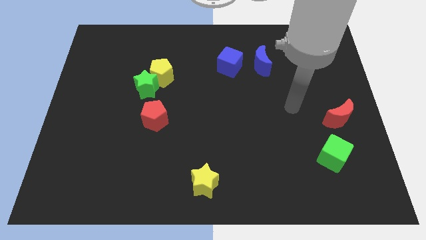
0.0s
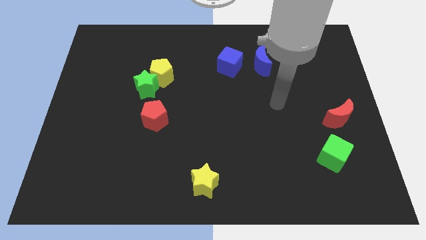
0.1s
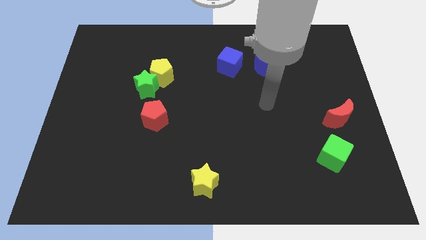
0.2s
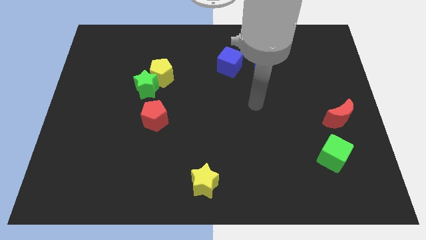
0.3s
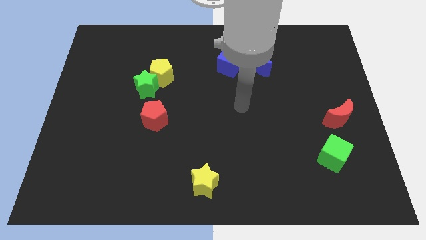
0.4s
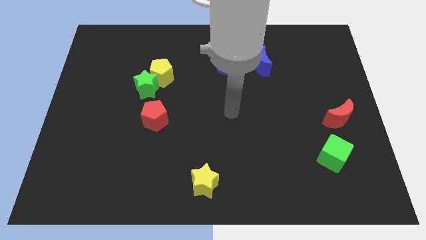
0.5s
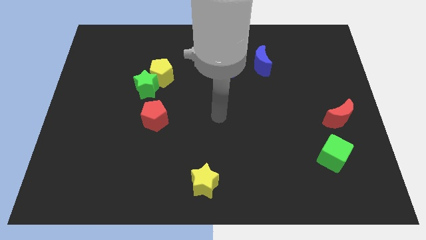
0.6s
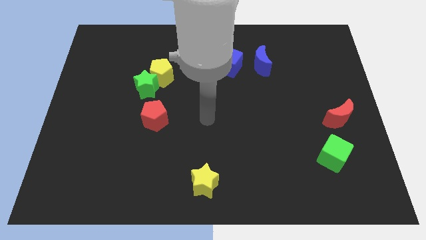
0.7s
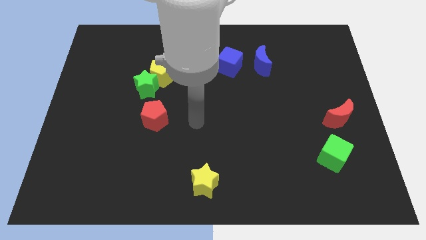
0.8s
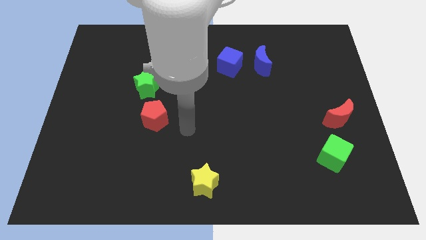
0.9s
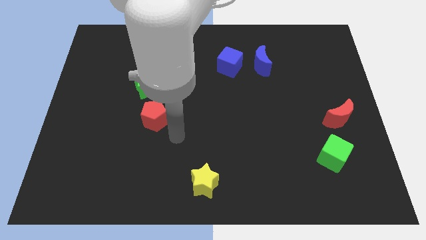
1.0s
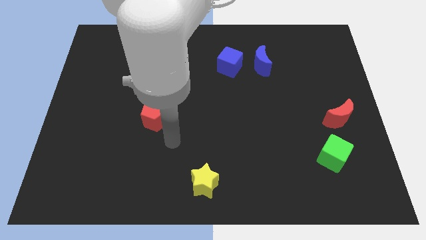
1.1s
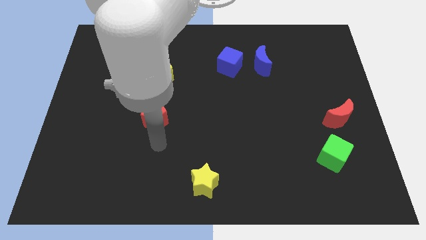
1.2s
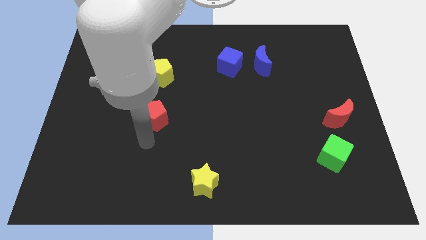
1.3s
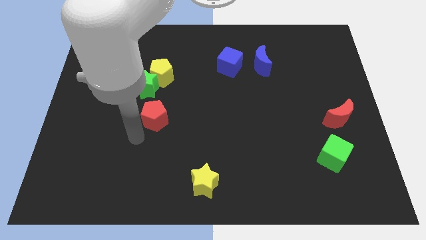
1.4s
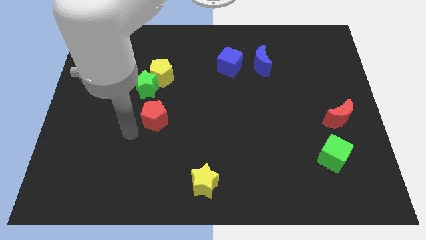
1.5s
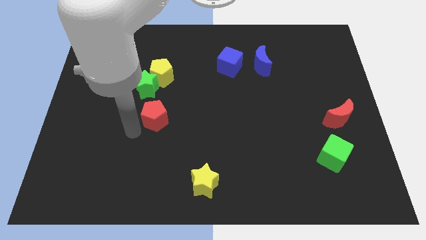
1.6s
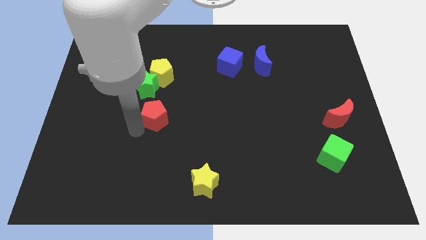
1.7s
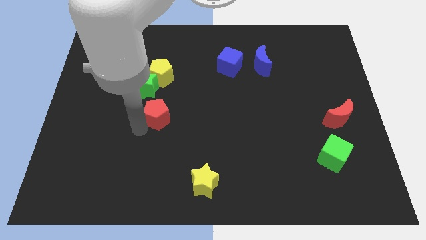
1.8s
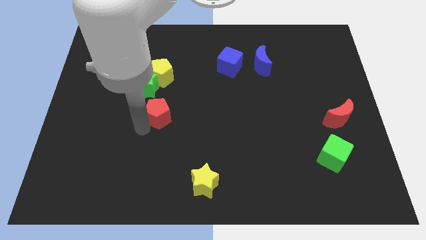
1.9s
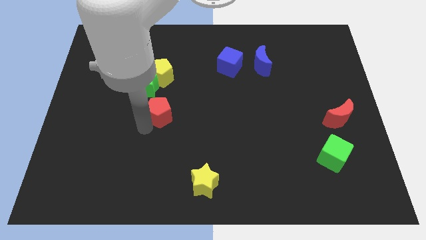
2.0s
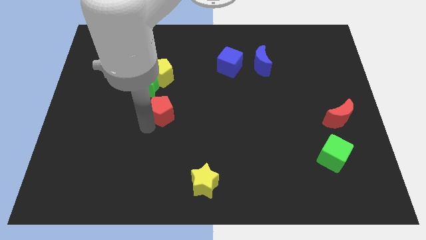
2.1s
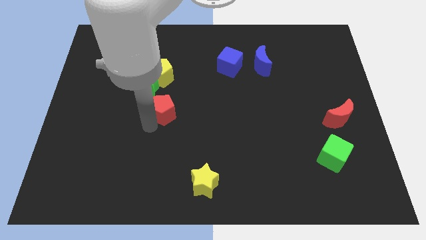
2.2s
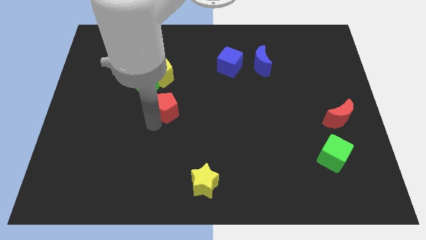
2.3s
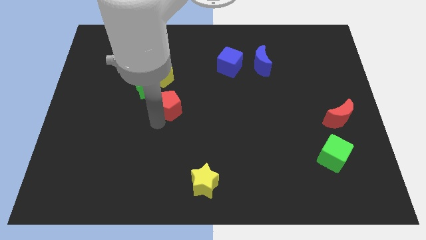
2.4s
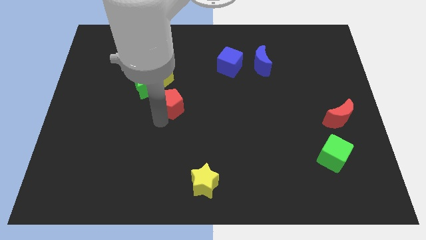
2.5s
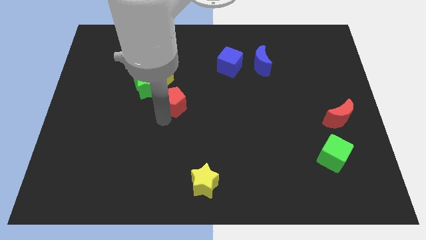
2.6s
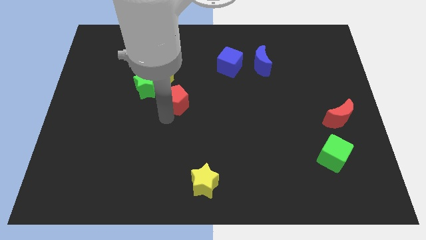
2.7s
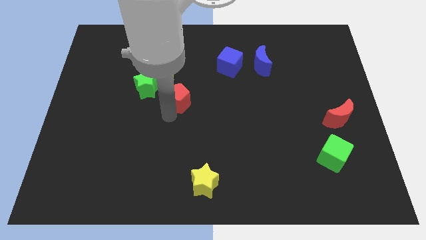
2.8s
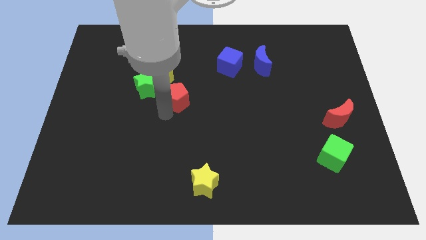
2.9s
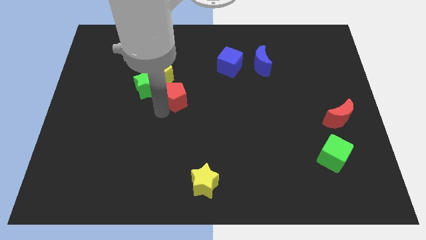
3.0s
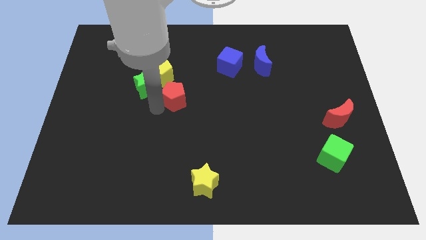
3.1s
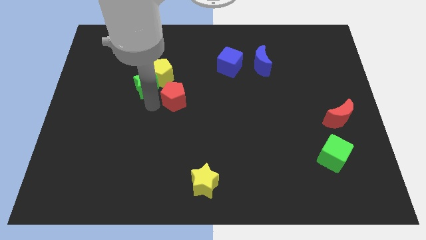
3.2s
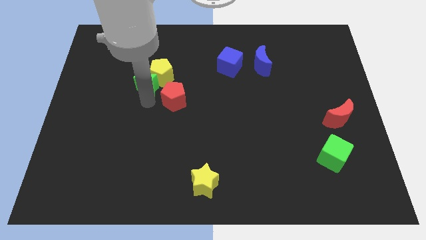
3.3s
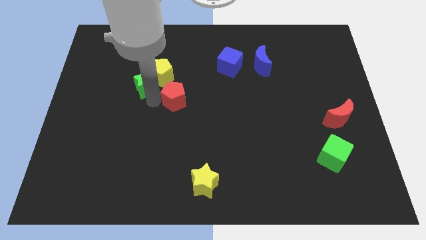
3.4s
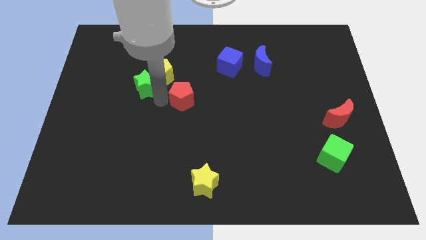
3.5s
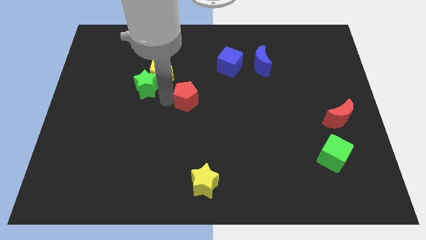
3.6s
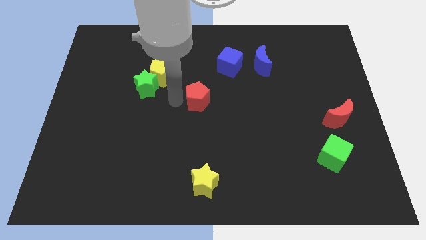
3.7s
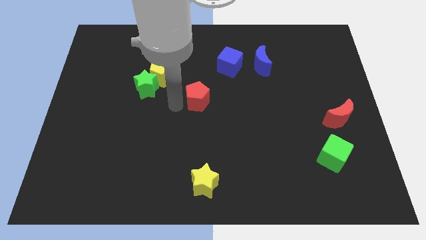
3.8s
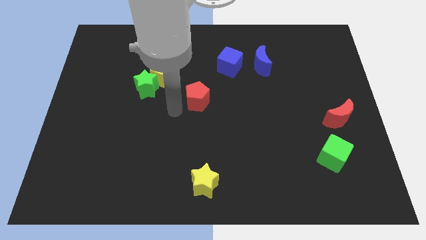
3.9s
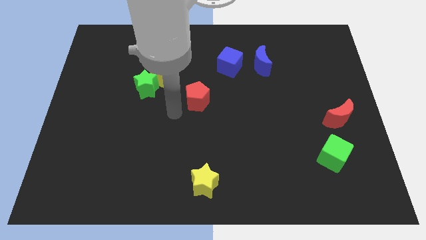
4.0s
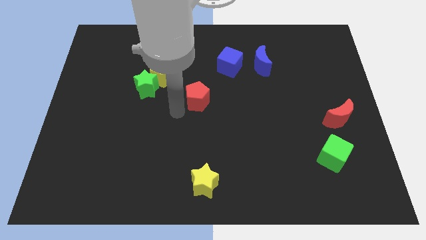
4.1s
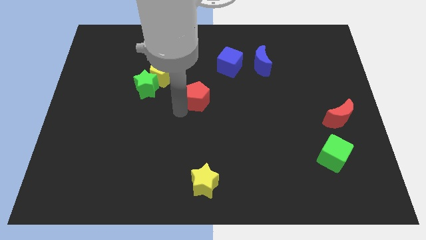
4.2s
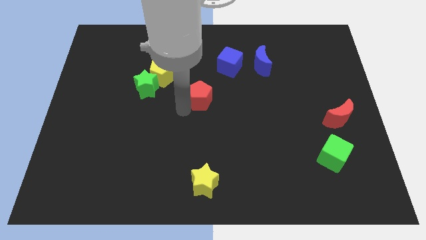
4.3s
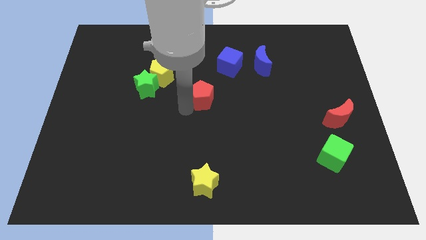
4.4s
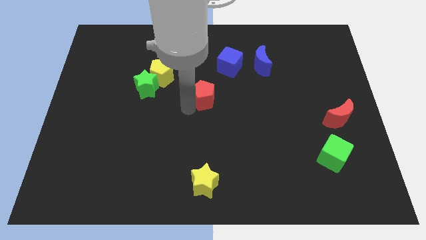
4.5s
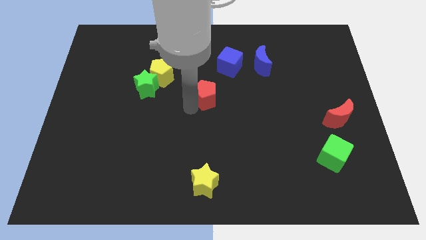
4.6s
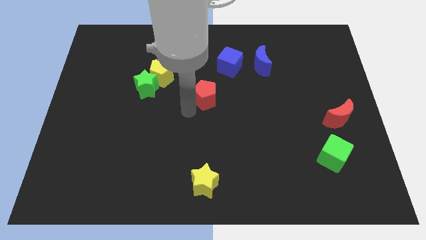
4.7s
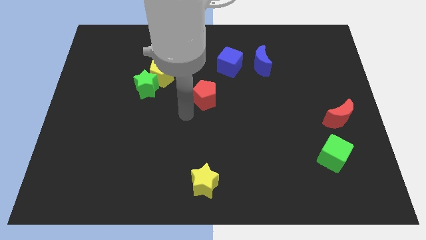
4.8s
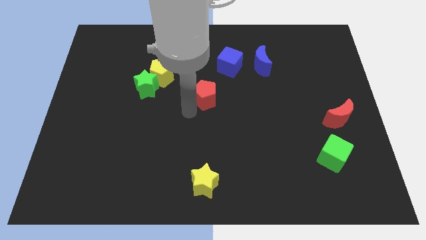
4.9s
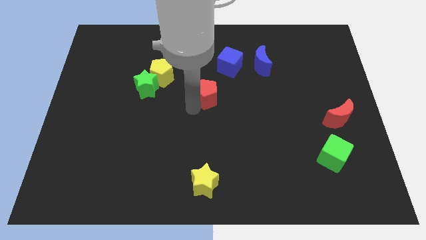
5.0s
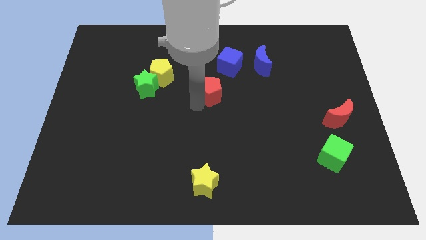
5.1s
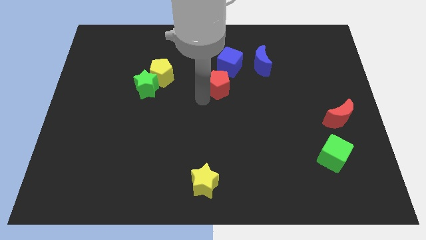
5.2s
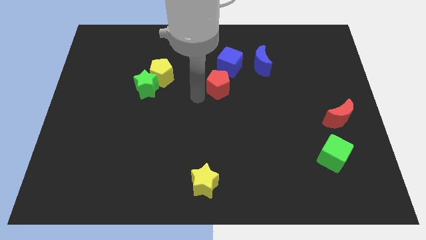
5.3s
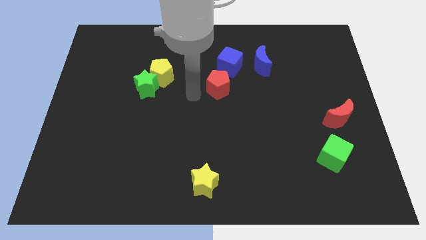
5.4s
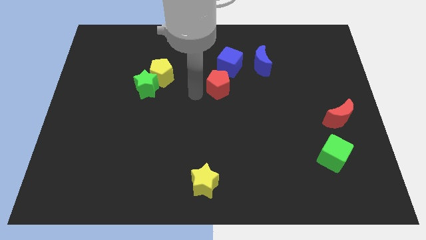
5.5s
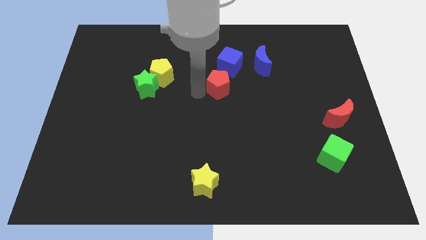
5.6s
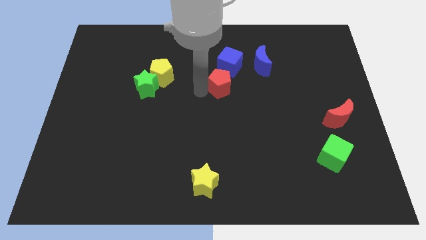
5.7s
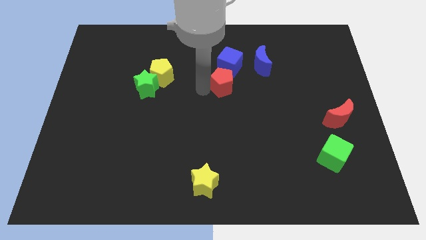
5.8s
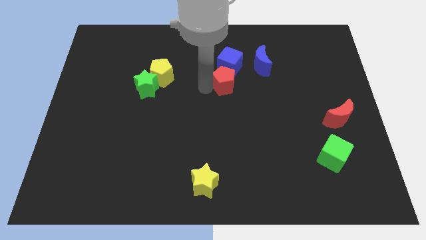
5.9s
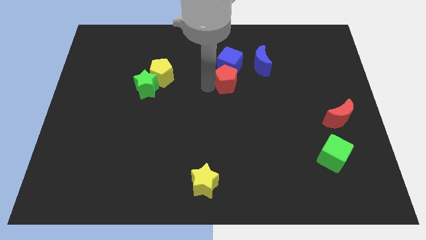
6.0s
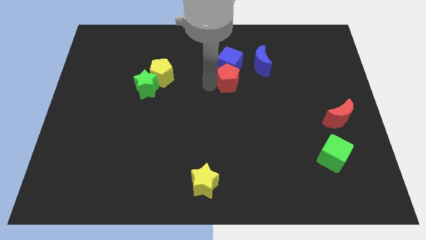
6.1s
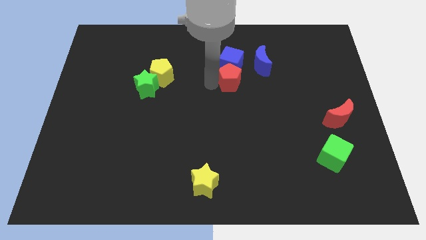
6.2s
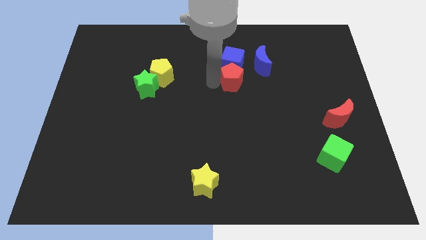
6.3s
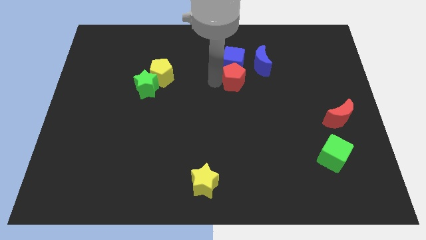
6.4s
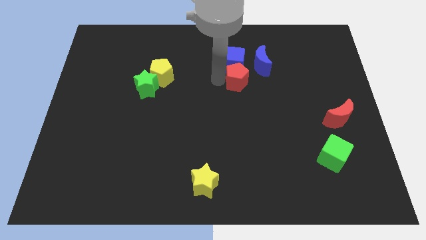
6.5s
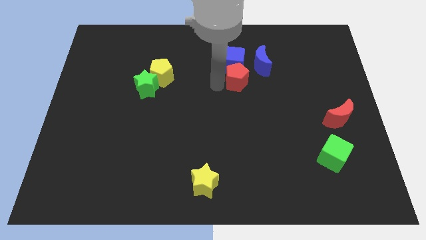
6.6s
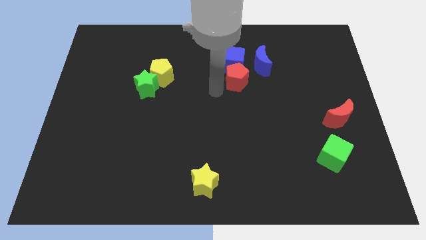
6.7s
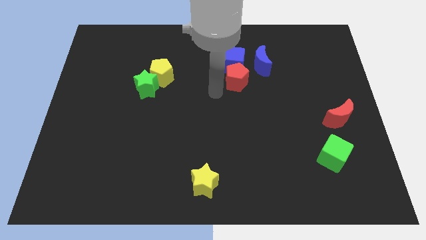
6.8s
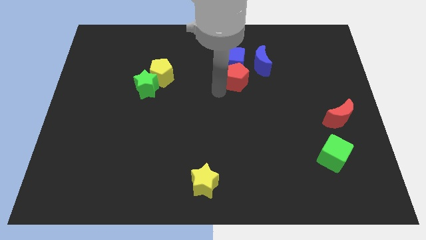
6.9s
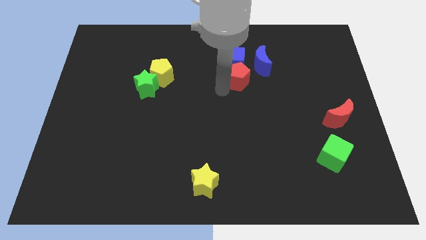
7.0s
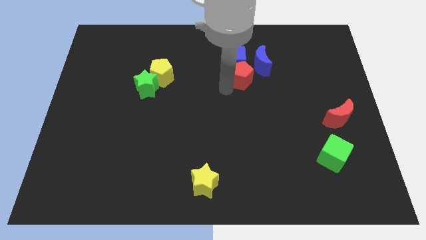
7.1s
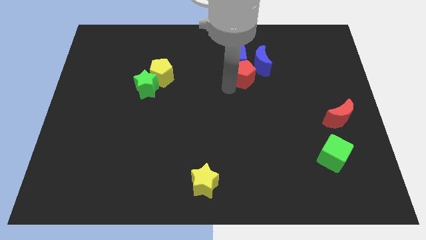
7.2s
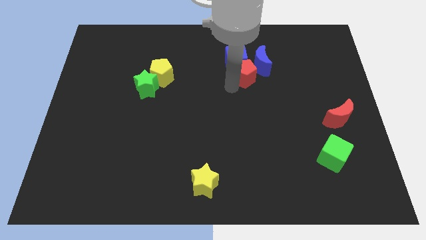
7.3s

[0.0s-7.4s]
move the red pentagon next to the blue moon
